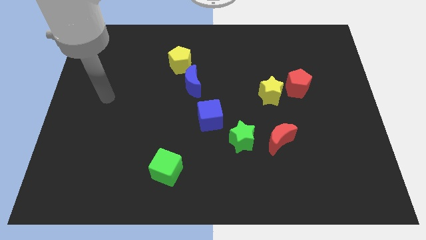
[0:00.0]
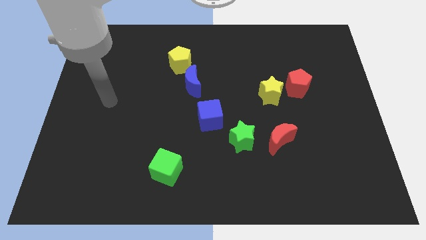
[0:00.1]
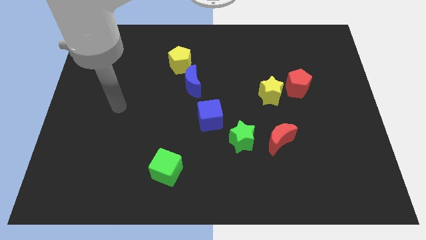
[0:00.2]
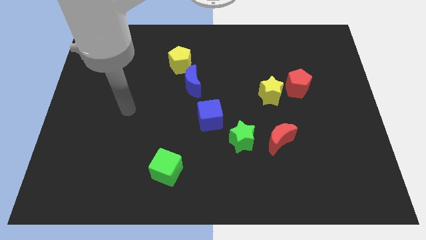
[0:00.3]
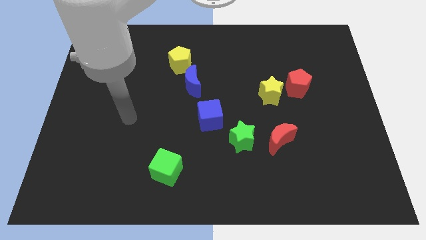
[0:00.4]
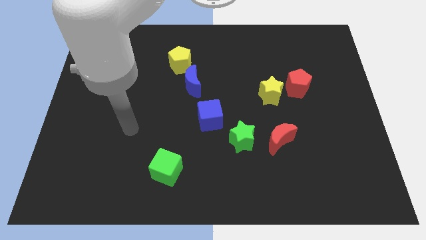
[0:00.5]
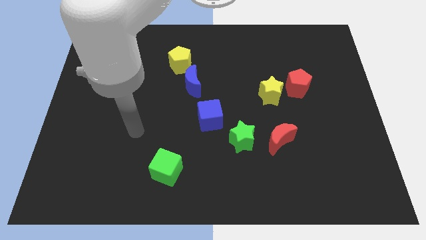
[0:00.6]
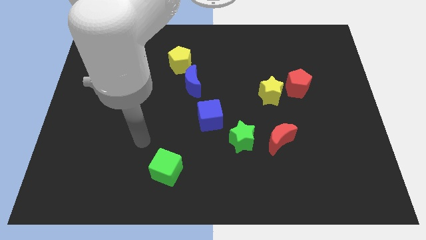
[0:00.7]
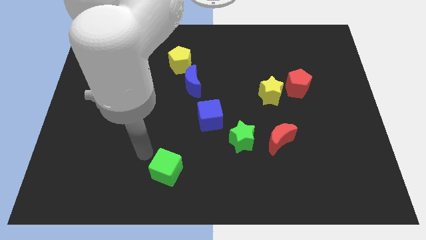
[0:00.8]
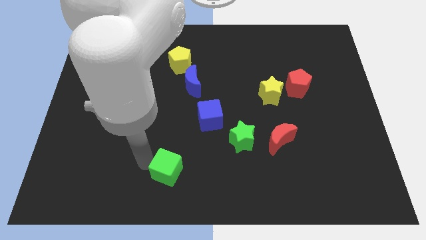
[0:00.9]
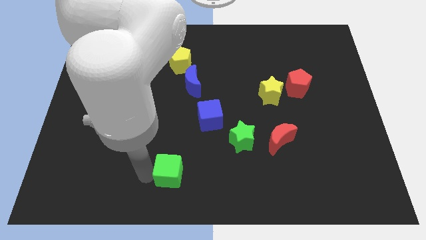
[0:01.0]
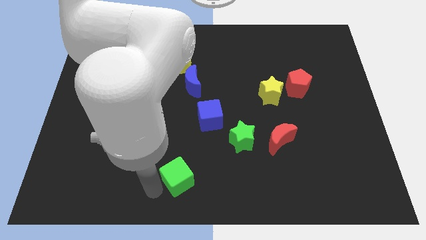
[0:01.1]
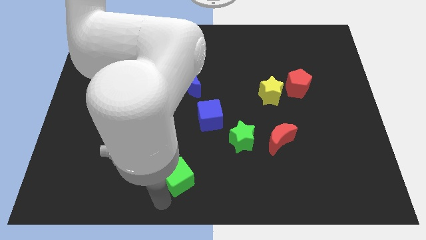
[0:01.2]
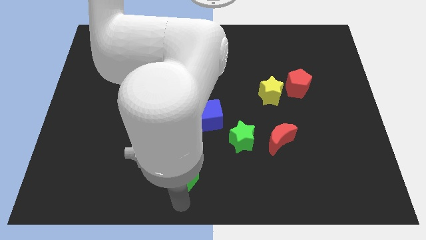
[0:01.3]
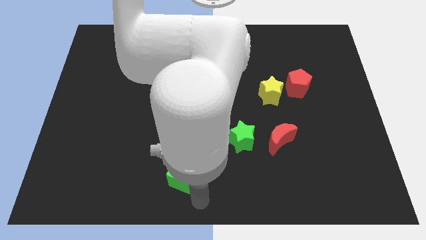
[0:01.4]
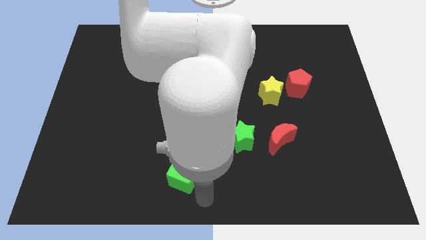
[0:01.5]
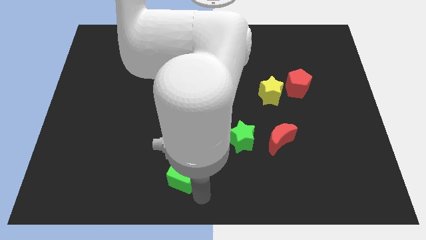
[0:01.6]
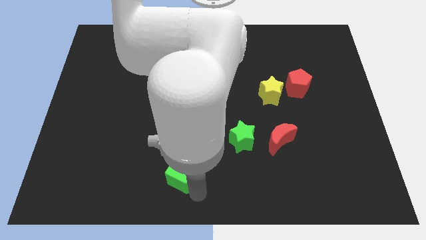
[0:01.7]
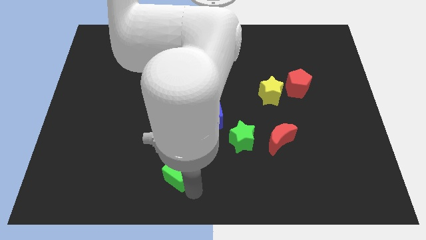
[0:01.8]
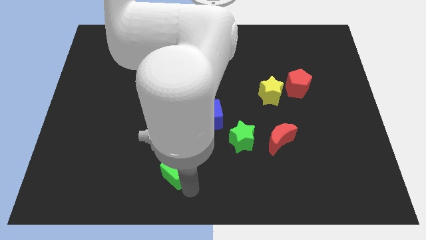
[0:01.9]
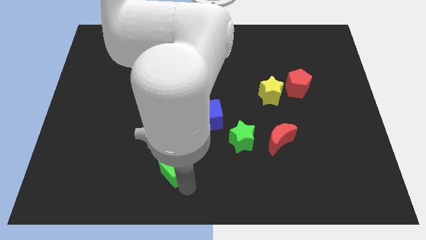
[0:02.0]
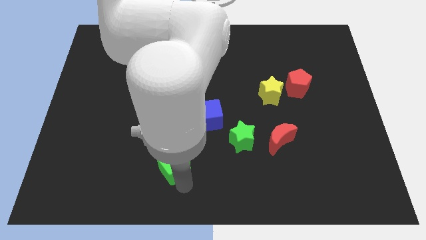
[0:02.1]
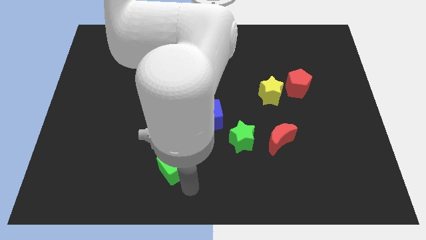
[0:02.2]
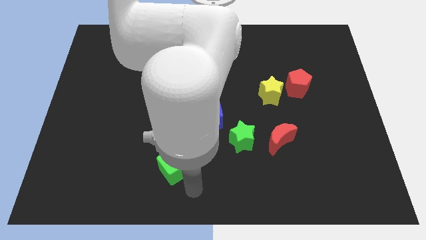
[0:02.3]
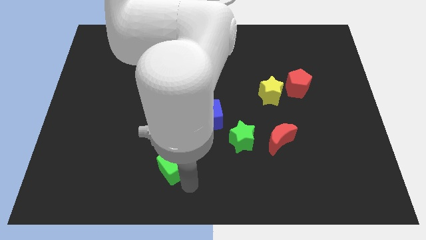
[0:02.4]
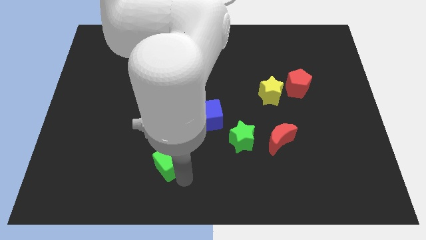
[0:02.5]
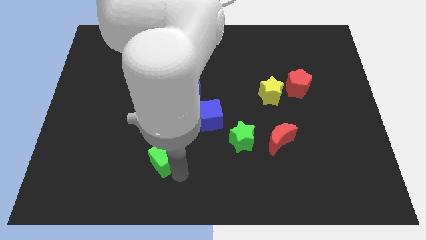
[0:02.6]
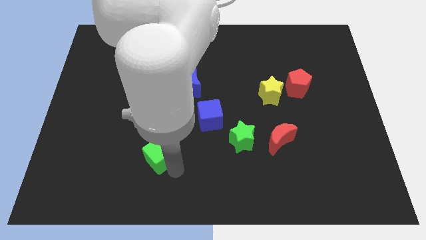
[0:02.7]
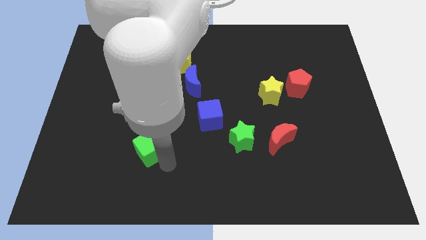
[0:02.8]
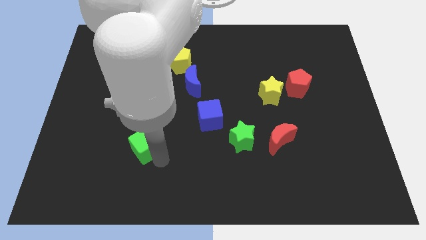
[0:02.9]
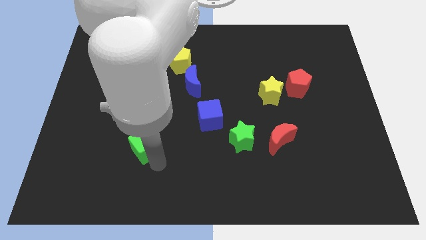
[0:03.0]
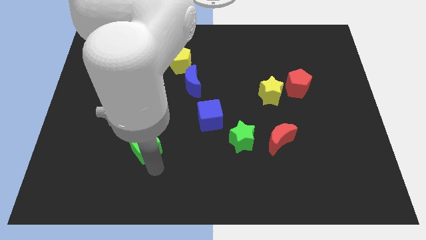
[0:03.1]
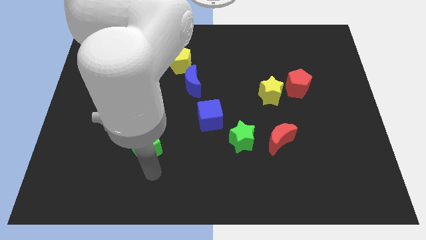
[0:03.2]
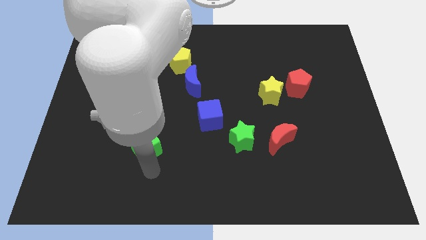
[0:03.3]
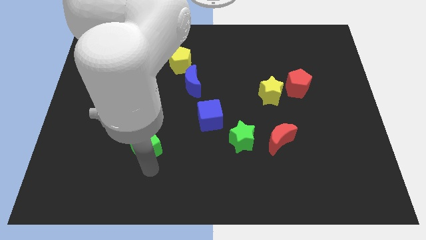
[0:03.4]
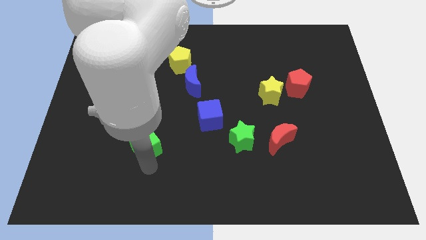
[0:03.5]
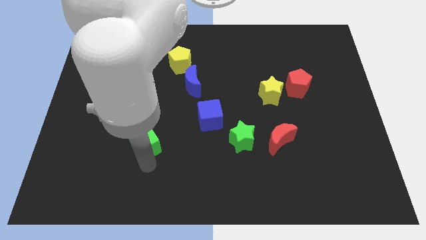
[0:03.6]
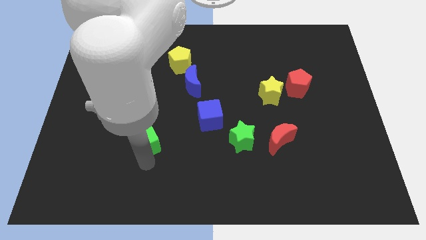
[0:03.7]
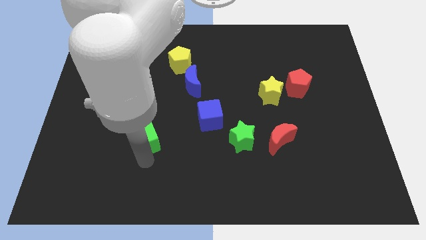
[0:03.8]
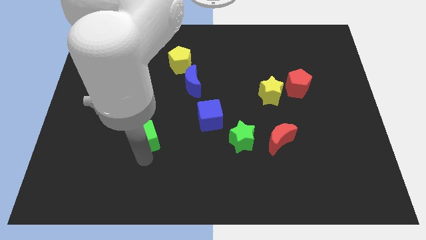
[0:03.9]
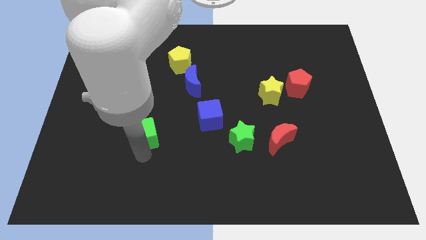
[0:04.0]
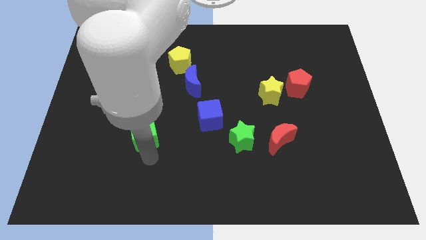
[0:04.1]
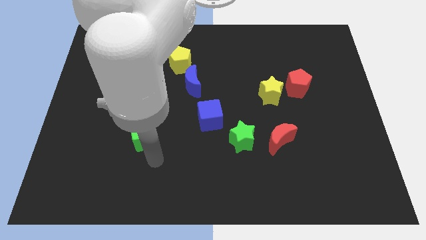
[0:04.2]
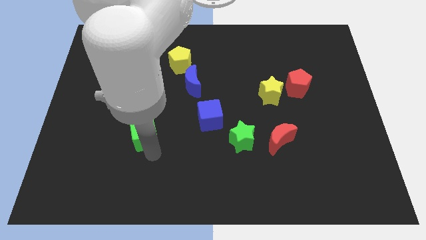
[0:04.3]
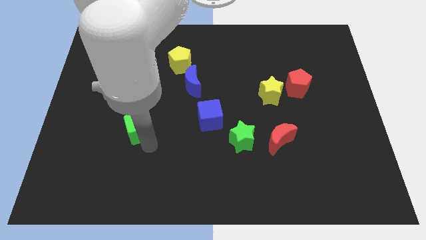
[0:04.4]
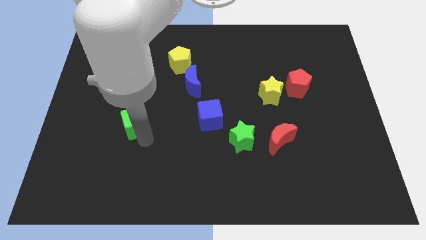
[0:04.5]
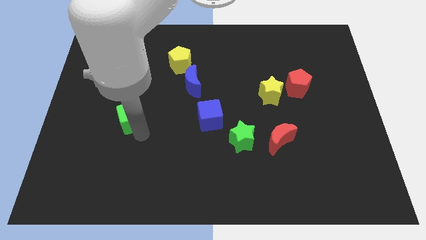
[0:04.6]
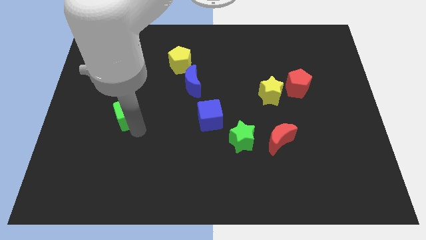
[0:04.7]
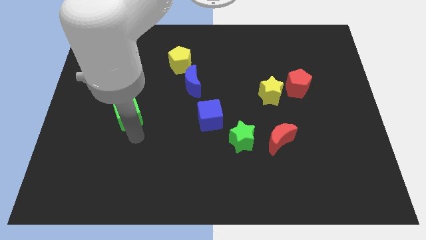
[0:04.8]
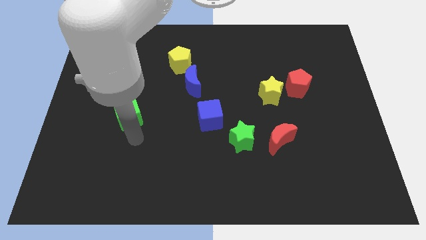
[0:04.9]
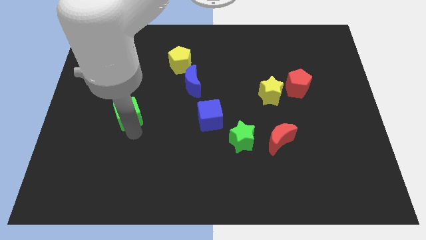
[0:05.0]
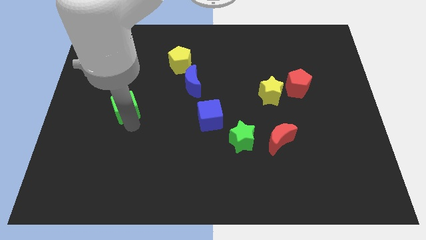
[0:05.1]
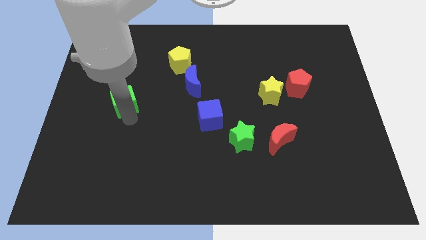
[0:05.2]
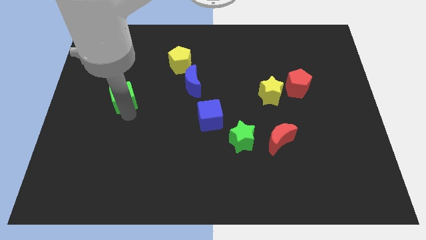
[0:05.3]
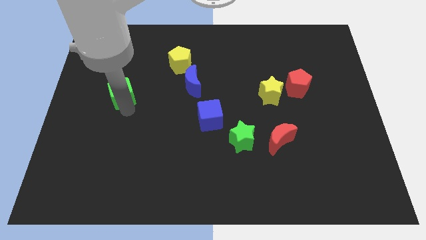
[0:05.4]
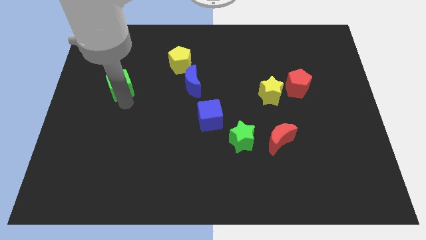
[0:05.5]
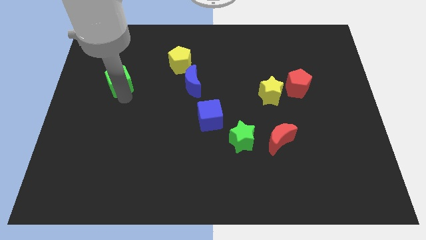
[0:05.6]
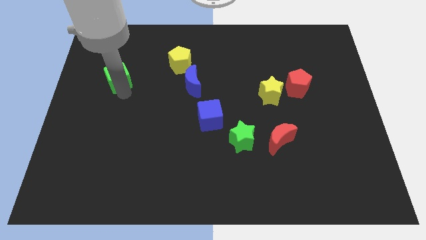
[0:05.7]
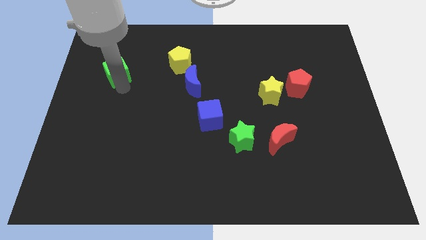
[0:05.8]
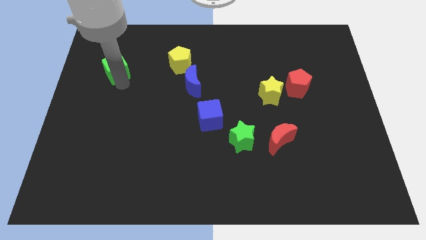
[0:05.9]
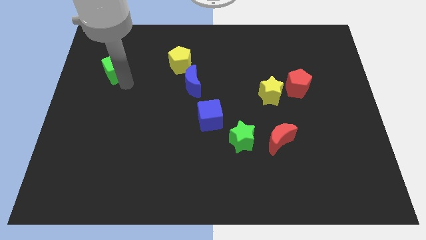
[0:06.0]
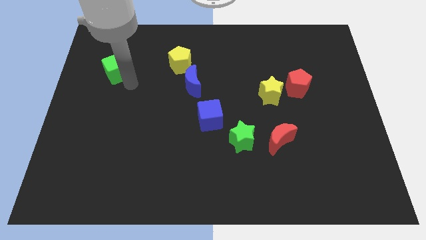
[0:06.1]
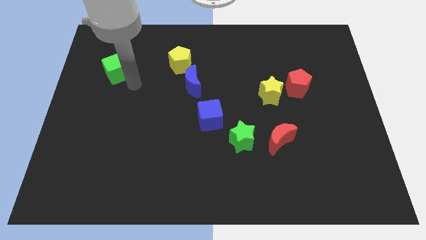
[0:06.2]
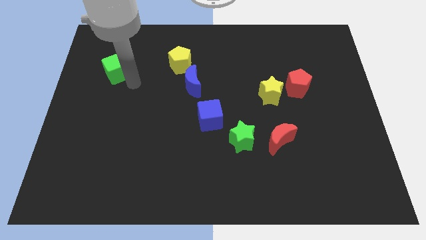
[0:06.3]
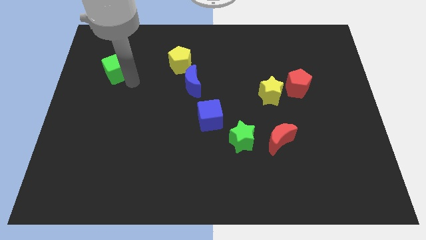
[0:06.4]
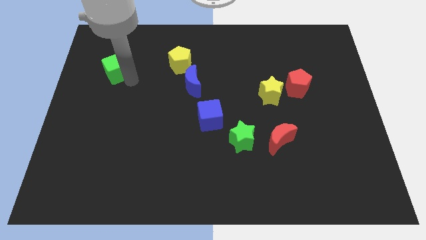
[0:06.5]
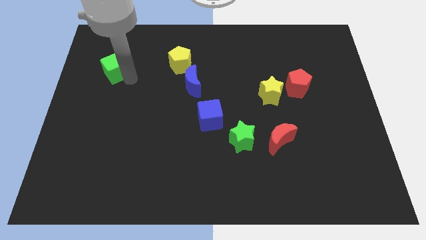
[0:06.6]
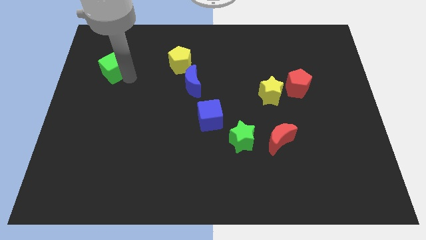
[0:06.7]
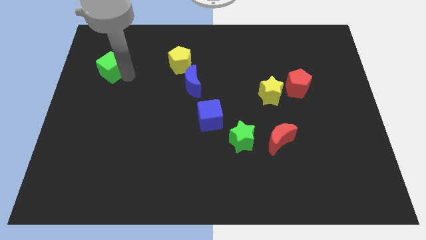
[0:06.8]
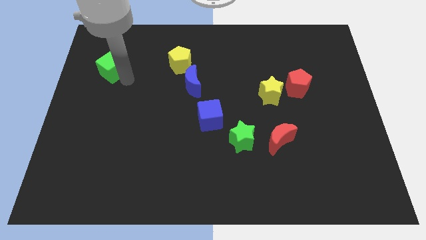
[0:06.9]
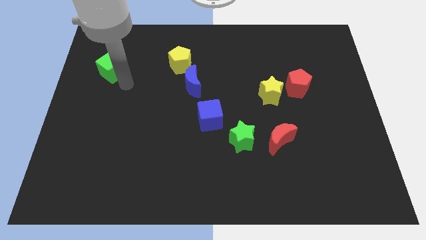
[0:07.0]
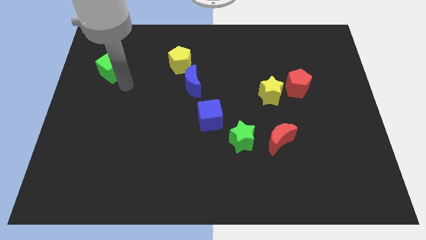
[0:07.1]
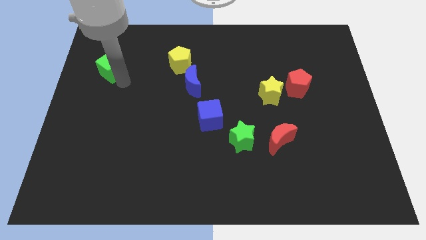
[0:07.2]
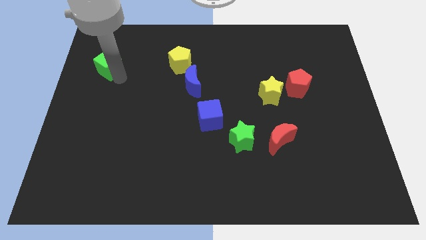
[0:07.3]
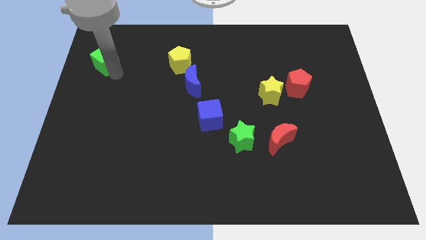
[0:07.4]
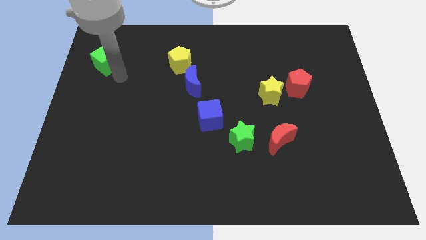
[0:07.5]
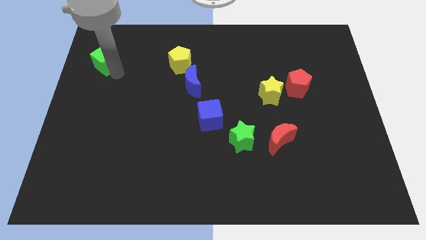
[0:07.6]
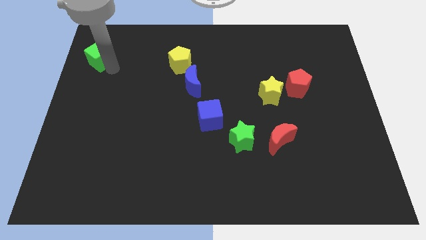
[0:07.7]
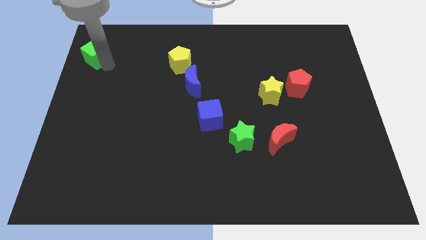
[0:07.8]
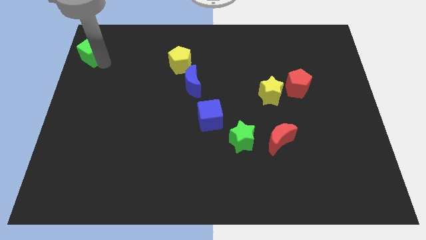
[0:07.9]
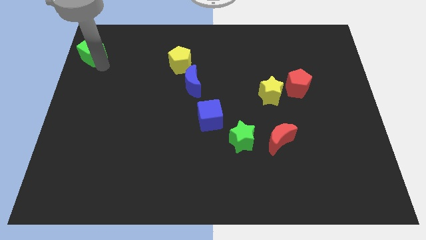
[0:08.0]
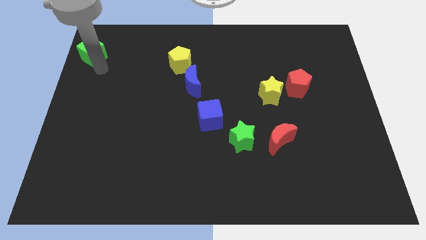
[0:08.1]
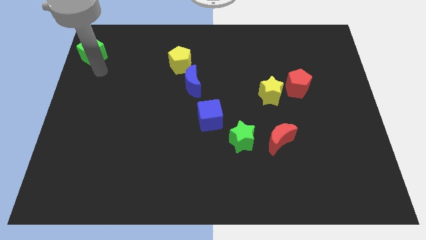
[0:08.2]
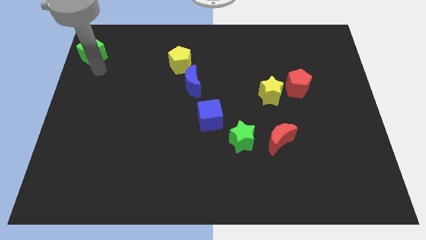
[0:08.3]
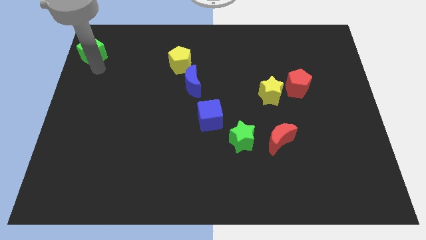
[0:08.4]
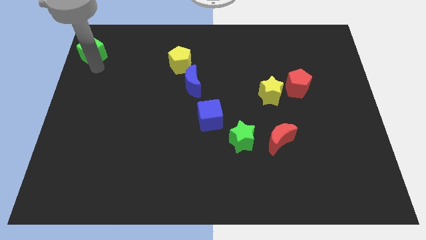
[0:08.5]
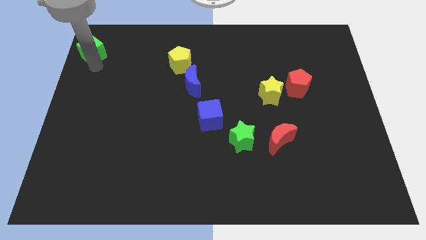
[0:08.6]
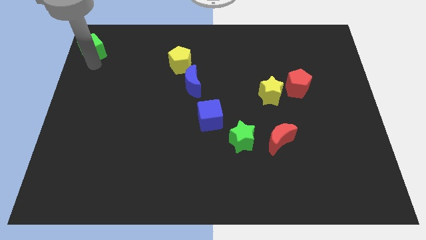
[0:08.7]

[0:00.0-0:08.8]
move the green cube to the upper left corner
